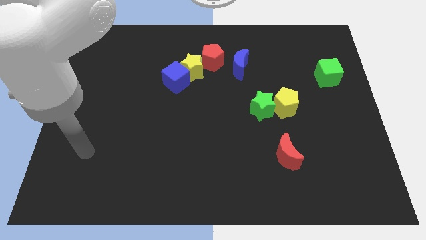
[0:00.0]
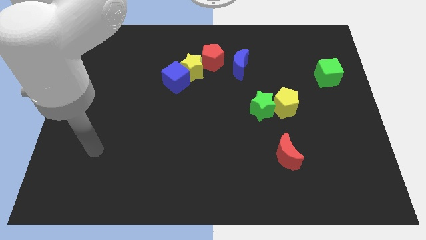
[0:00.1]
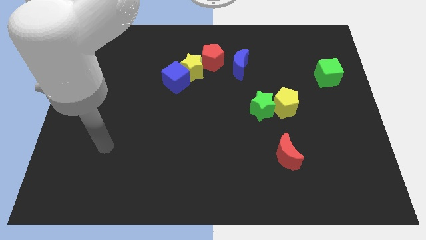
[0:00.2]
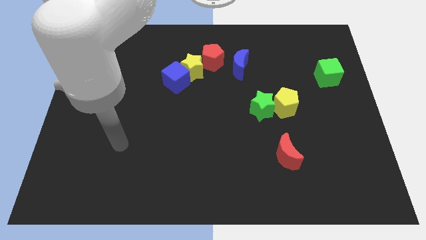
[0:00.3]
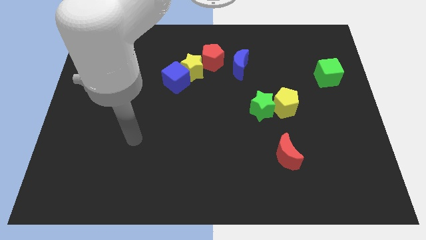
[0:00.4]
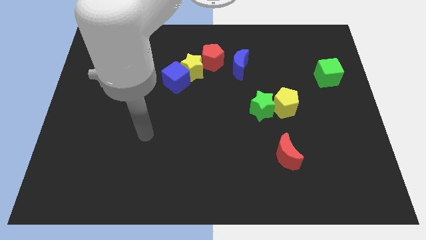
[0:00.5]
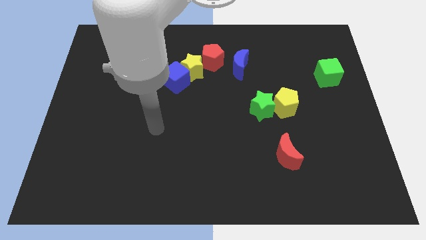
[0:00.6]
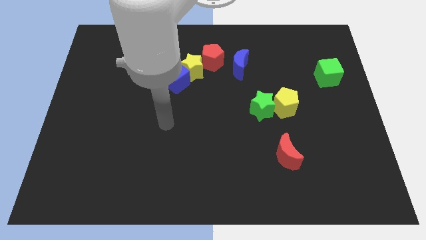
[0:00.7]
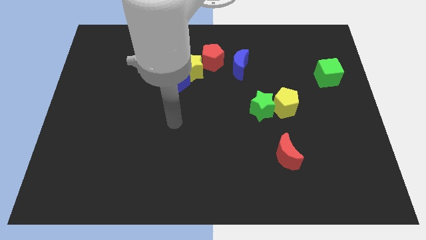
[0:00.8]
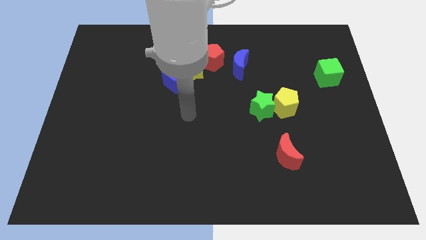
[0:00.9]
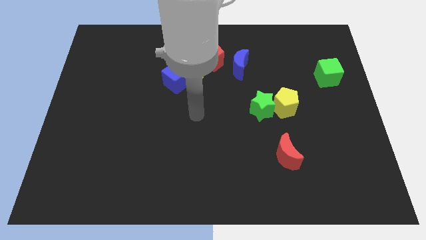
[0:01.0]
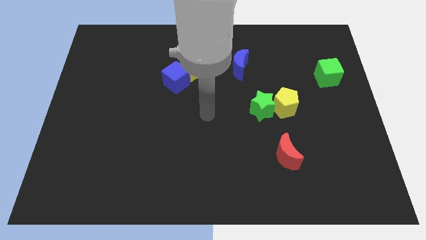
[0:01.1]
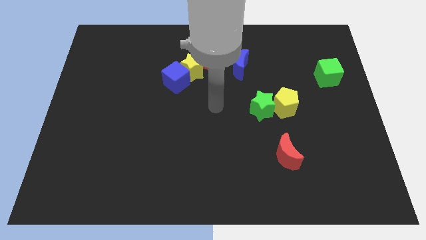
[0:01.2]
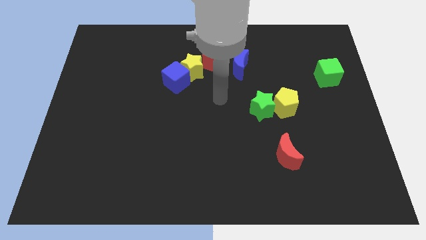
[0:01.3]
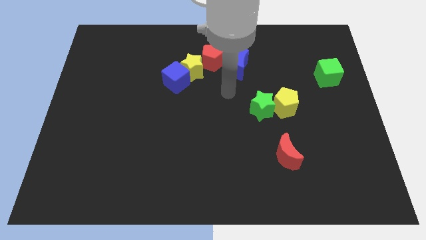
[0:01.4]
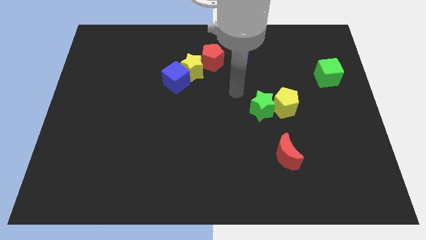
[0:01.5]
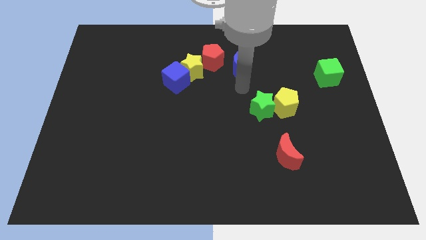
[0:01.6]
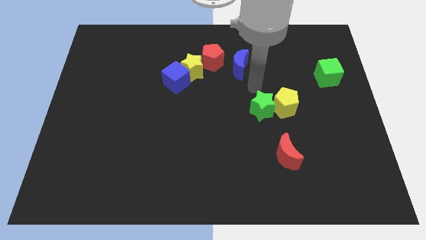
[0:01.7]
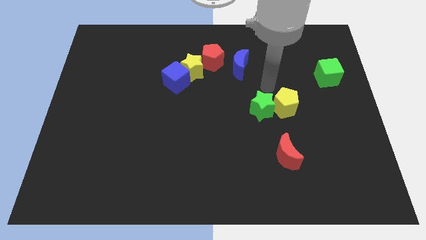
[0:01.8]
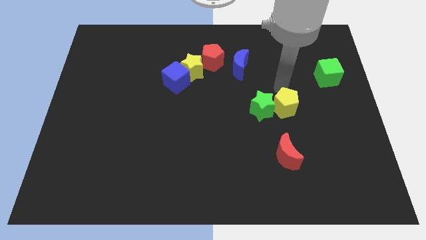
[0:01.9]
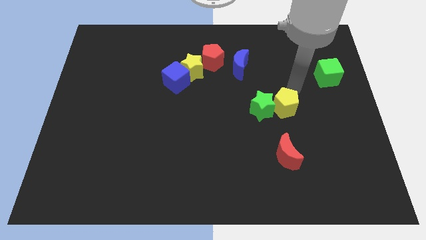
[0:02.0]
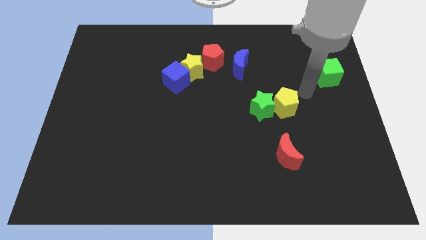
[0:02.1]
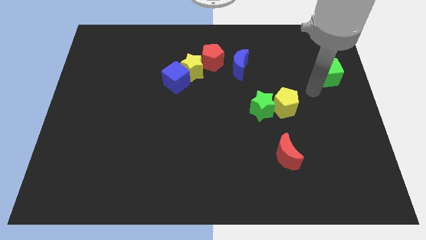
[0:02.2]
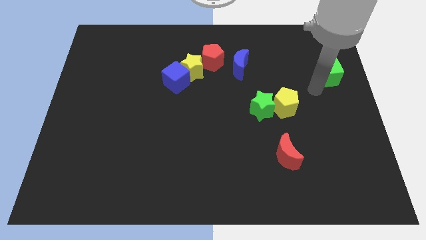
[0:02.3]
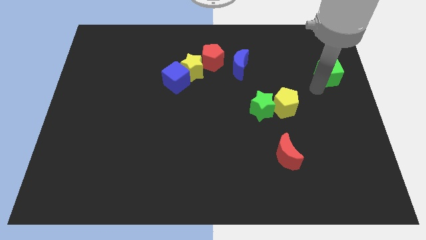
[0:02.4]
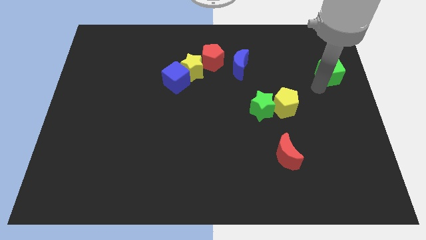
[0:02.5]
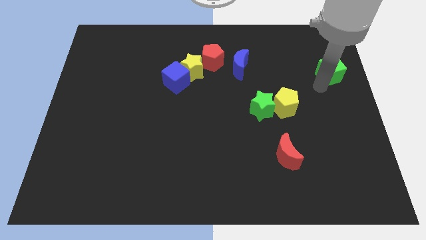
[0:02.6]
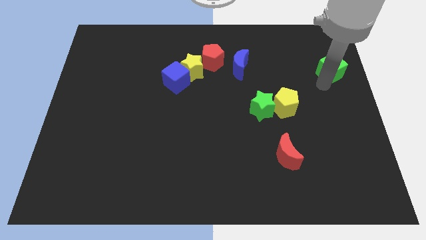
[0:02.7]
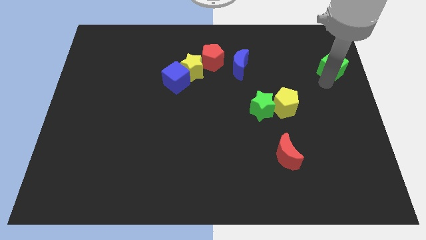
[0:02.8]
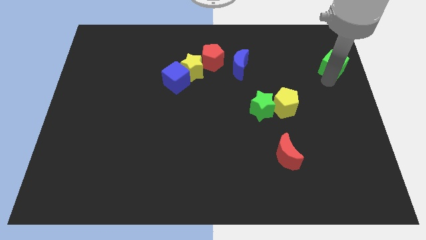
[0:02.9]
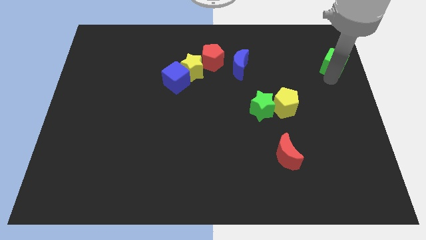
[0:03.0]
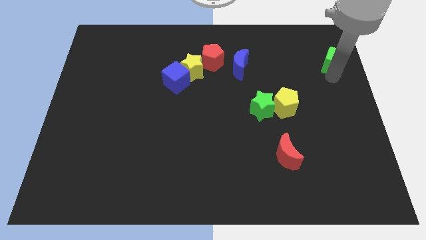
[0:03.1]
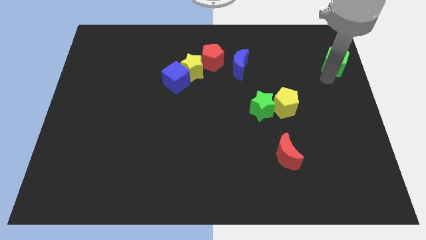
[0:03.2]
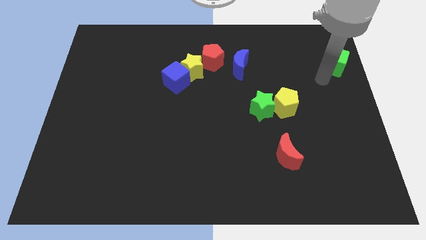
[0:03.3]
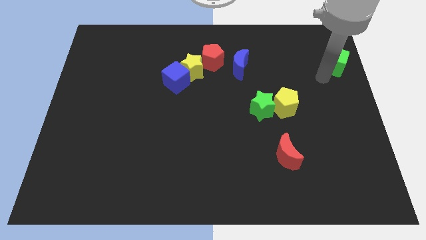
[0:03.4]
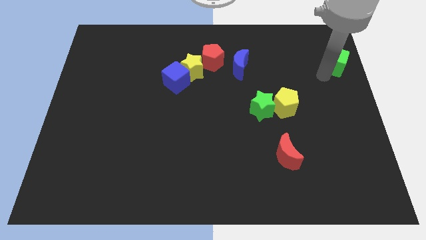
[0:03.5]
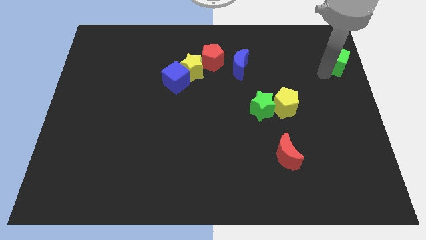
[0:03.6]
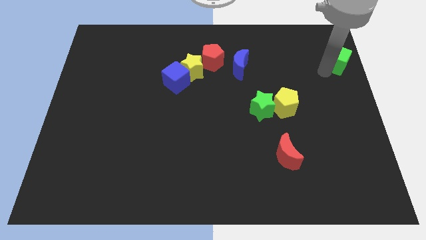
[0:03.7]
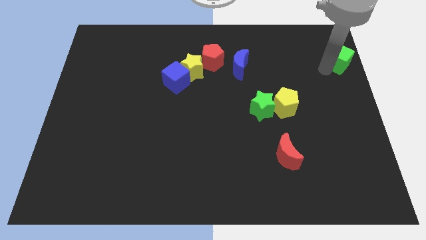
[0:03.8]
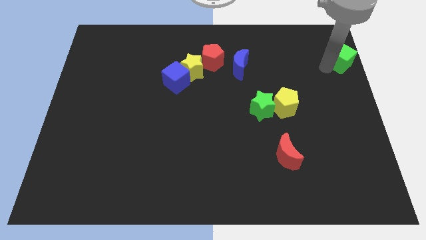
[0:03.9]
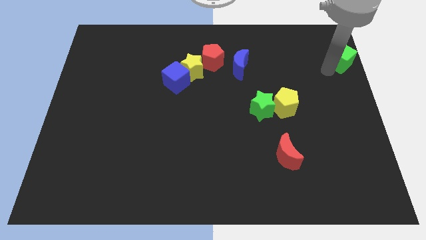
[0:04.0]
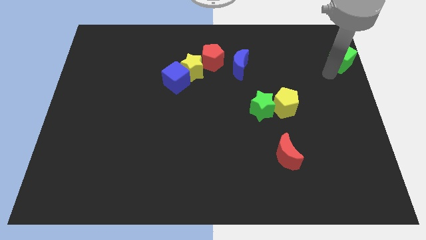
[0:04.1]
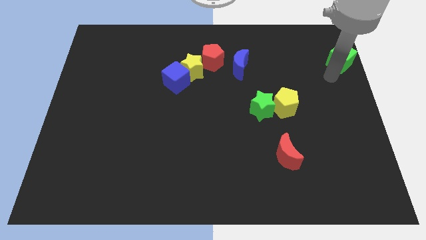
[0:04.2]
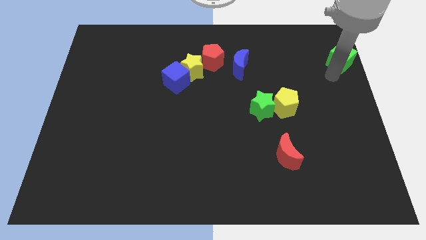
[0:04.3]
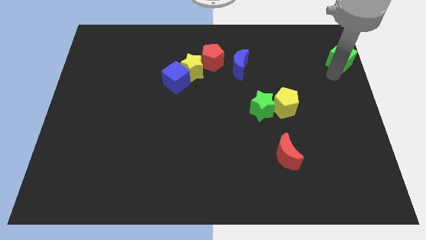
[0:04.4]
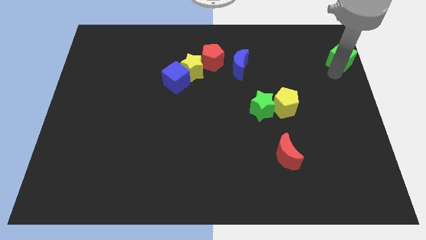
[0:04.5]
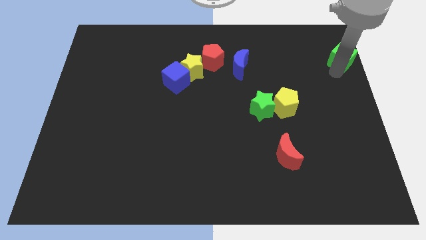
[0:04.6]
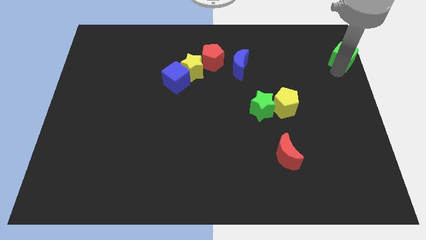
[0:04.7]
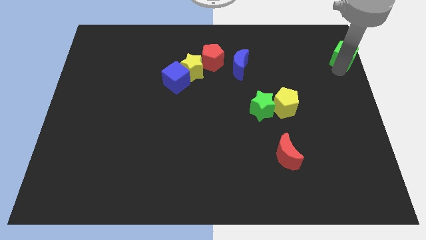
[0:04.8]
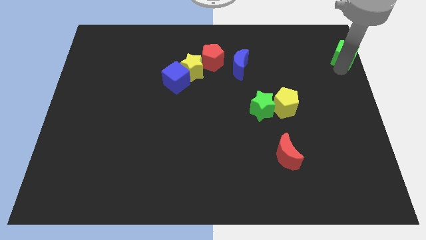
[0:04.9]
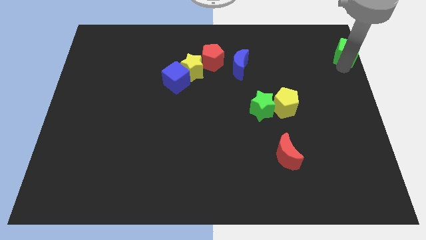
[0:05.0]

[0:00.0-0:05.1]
move the green cube to the top right of the board
